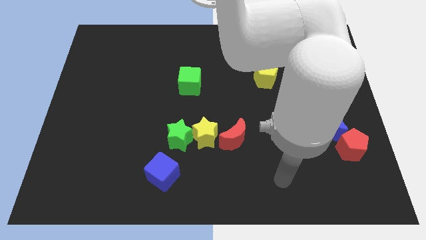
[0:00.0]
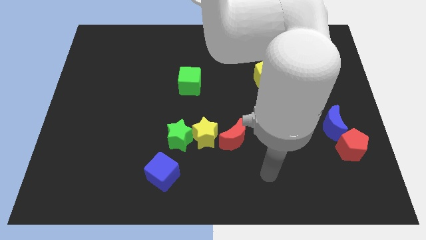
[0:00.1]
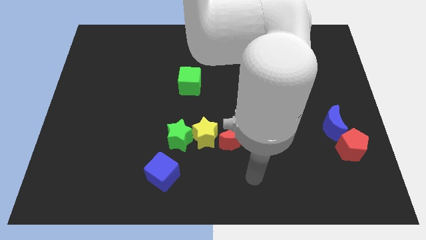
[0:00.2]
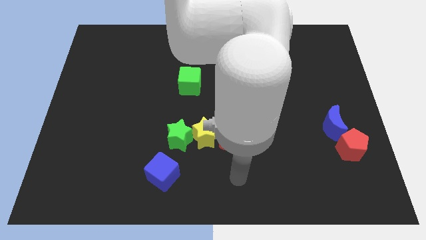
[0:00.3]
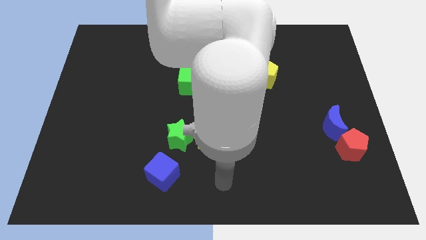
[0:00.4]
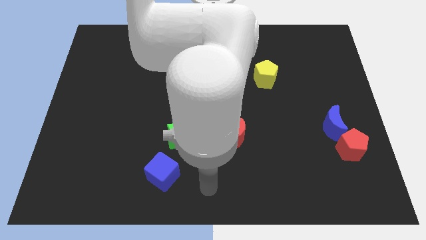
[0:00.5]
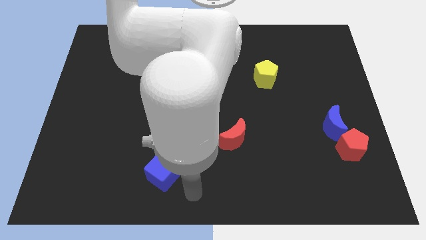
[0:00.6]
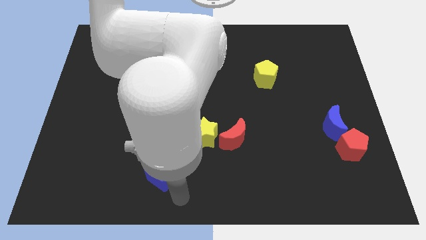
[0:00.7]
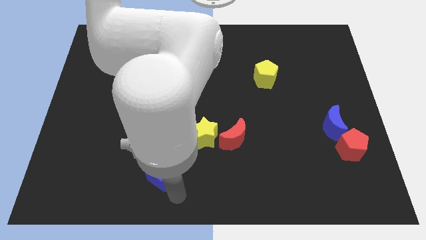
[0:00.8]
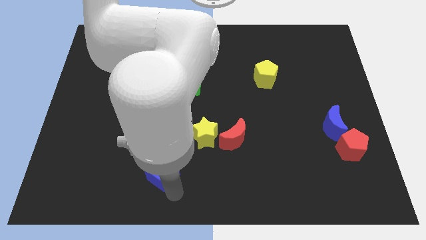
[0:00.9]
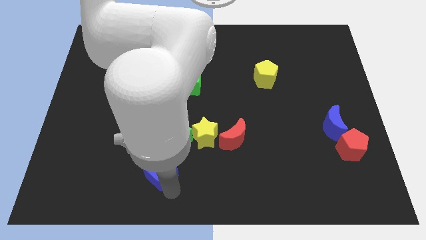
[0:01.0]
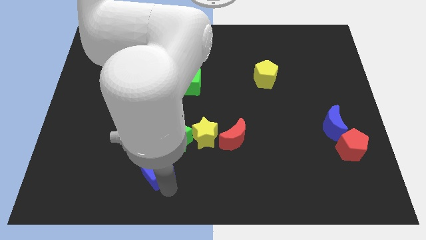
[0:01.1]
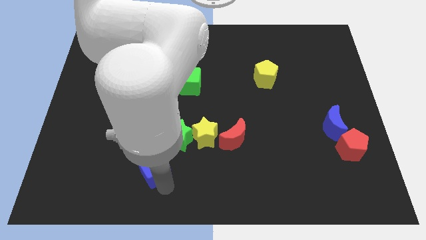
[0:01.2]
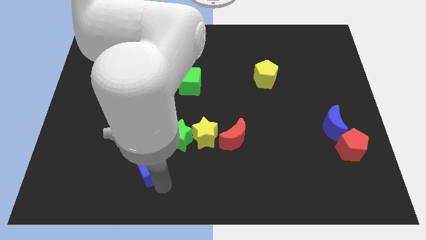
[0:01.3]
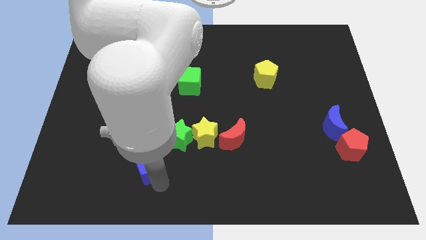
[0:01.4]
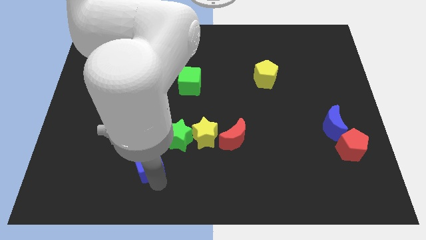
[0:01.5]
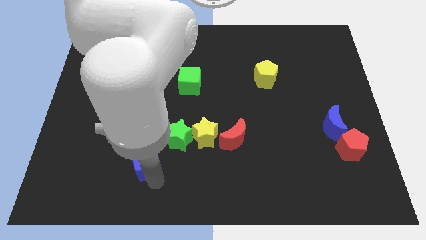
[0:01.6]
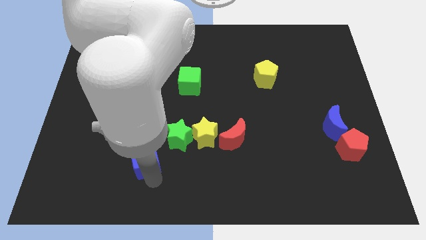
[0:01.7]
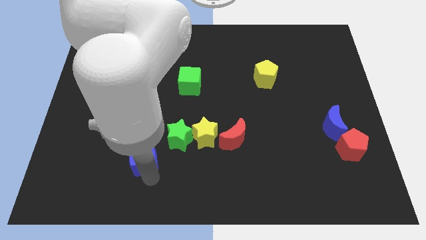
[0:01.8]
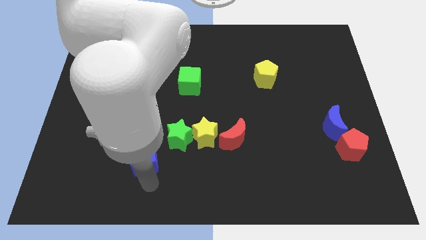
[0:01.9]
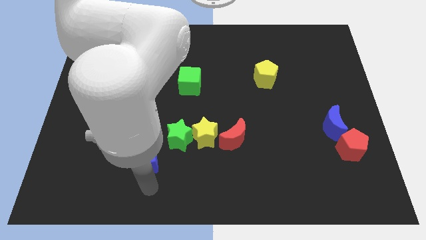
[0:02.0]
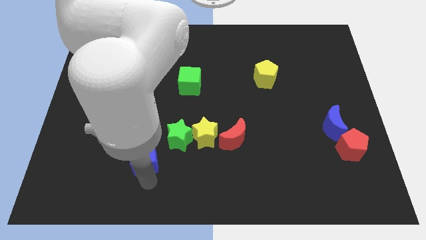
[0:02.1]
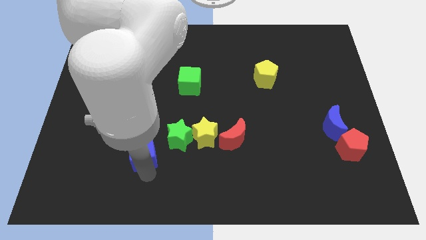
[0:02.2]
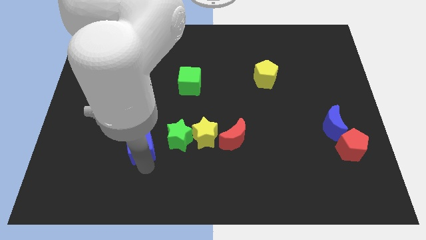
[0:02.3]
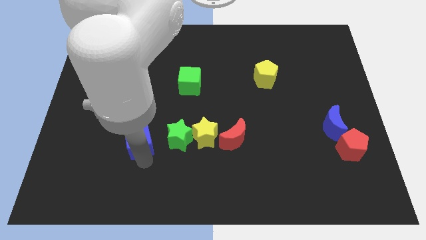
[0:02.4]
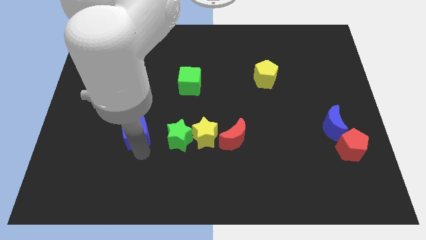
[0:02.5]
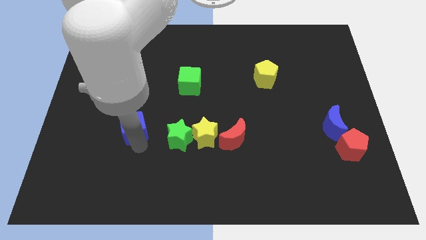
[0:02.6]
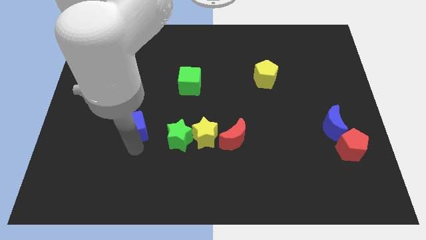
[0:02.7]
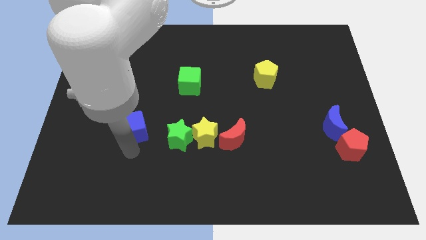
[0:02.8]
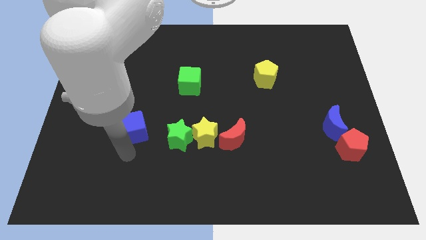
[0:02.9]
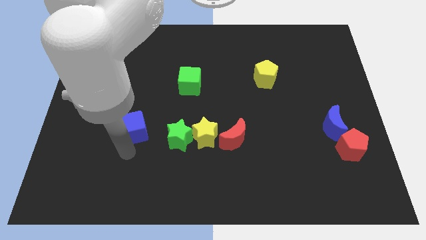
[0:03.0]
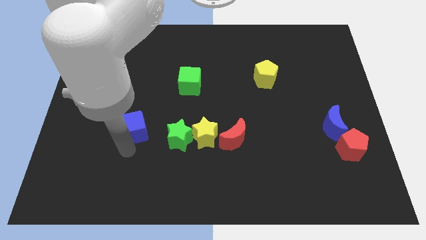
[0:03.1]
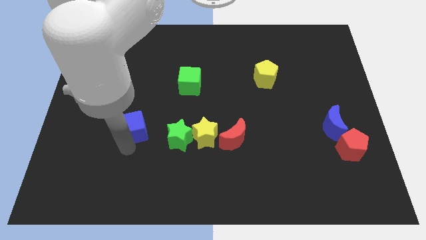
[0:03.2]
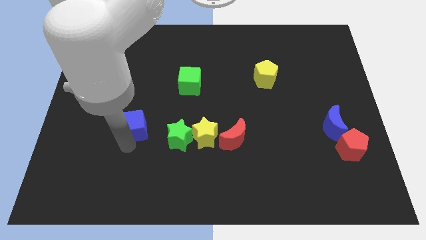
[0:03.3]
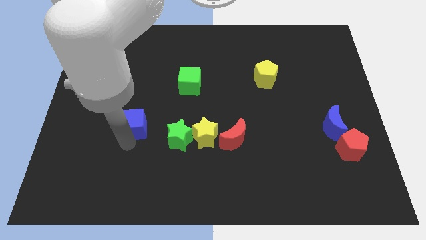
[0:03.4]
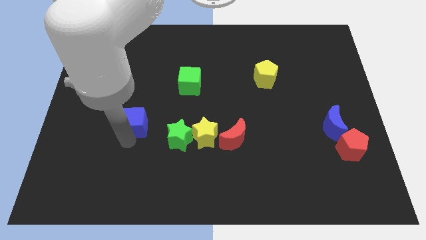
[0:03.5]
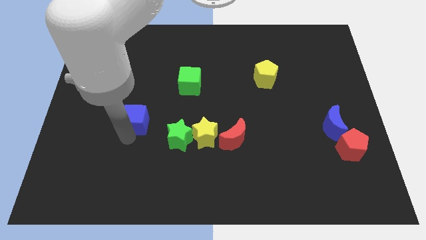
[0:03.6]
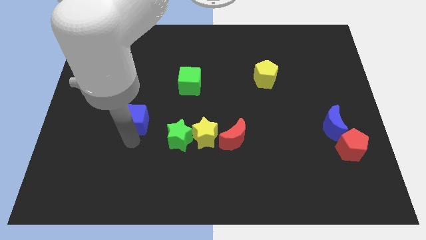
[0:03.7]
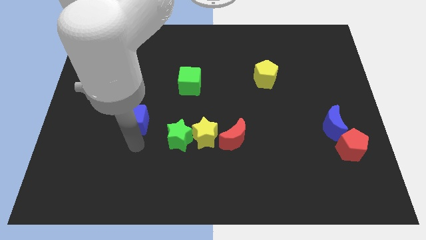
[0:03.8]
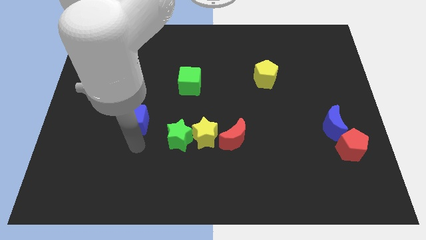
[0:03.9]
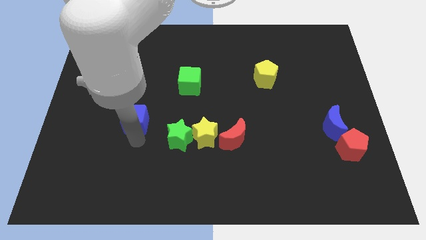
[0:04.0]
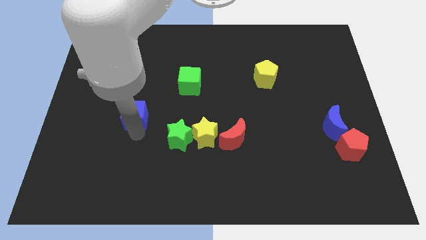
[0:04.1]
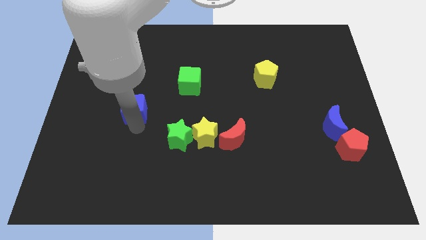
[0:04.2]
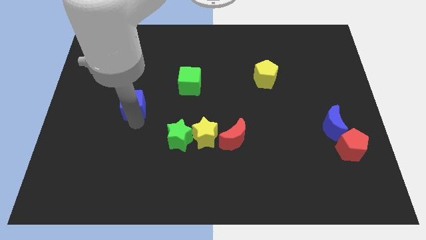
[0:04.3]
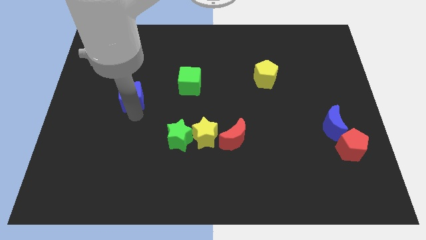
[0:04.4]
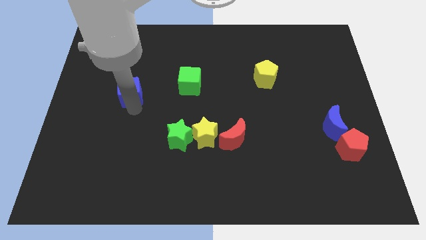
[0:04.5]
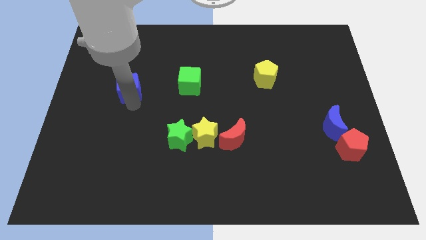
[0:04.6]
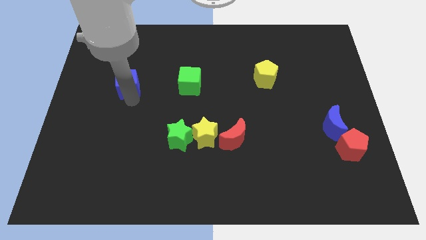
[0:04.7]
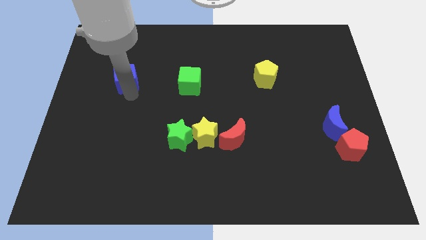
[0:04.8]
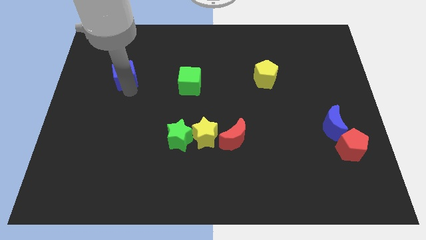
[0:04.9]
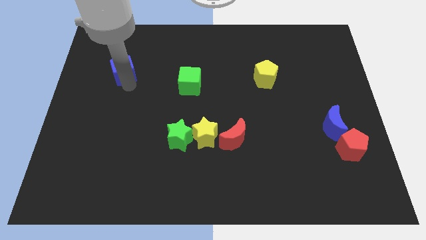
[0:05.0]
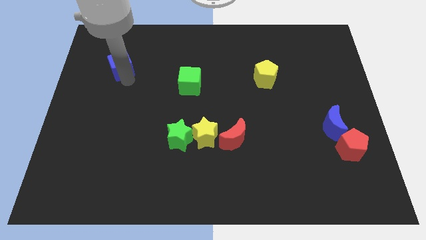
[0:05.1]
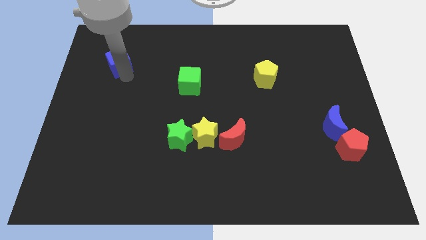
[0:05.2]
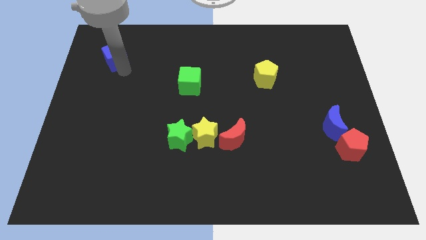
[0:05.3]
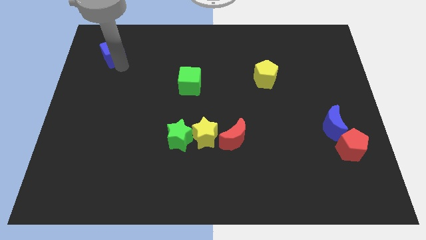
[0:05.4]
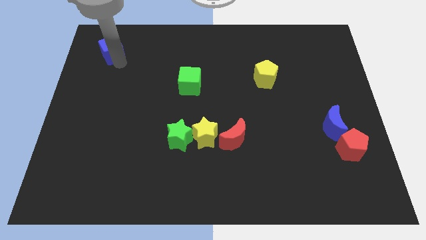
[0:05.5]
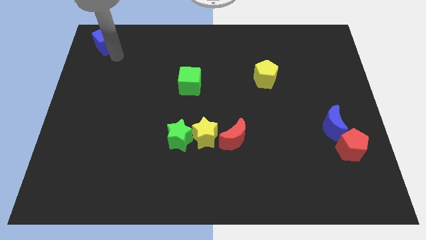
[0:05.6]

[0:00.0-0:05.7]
move the blue cube to the top left corner

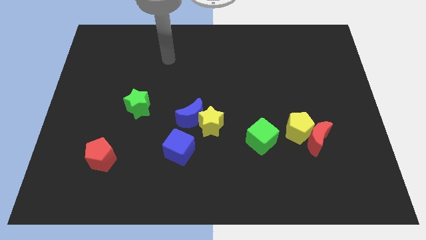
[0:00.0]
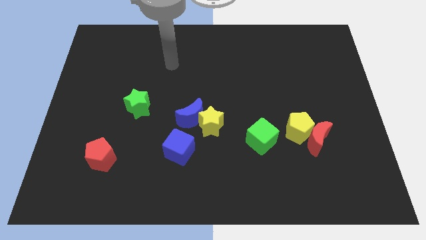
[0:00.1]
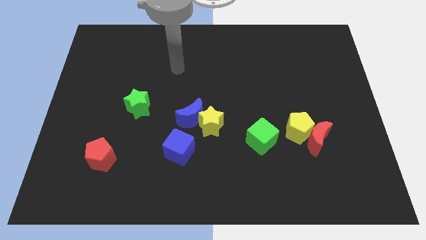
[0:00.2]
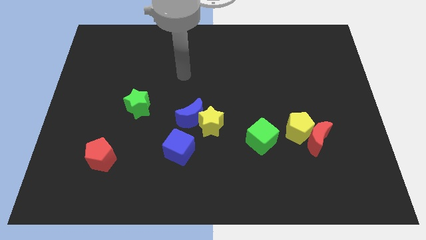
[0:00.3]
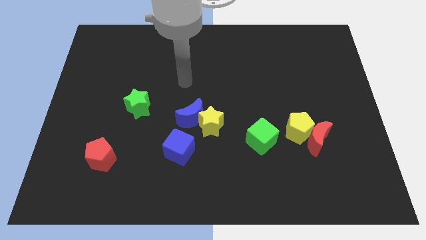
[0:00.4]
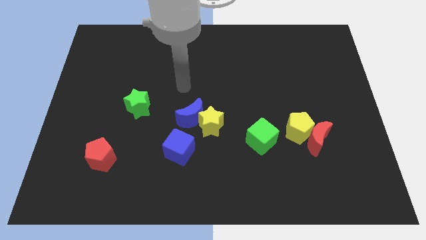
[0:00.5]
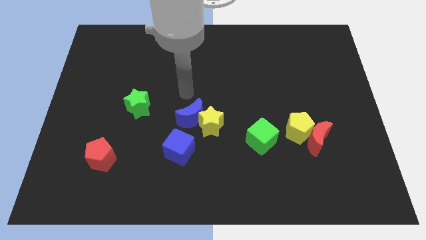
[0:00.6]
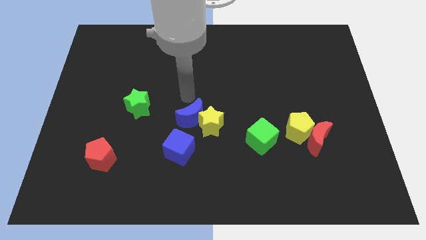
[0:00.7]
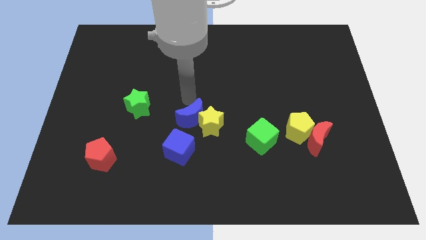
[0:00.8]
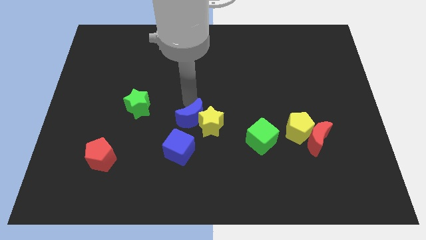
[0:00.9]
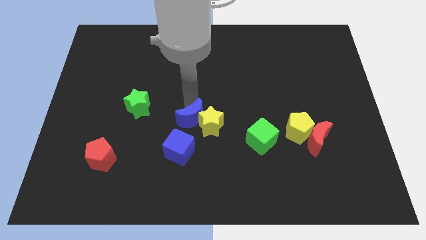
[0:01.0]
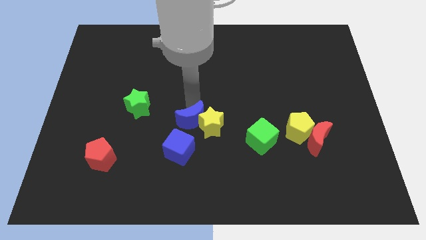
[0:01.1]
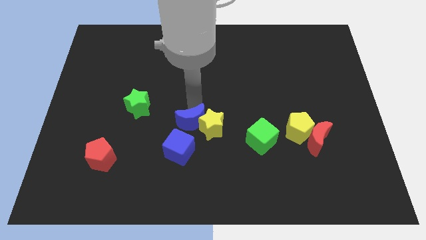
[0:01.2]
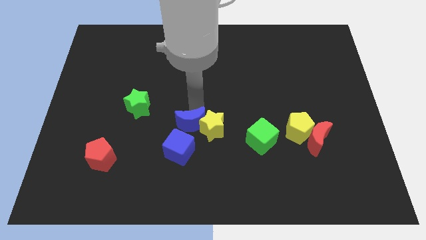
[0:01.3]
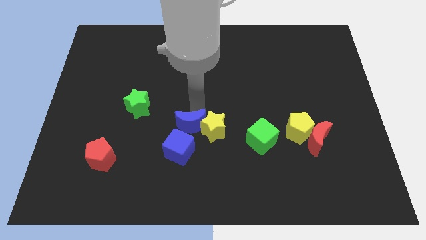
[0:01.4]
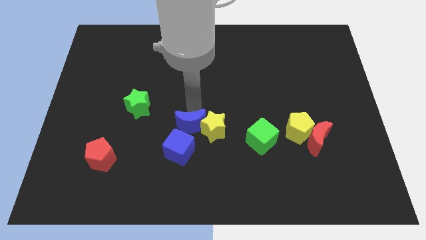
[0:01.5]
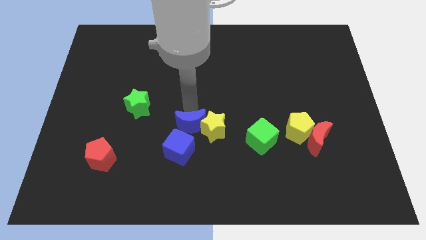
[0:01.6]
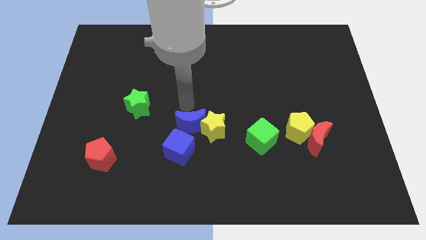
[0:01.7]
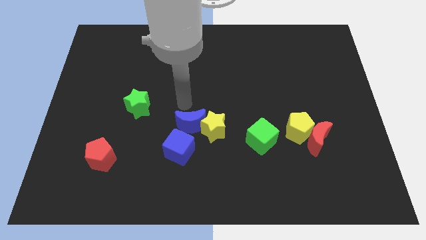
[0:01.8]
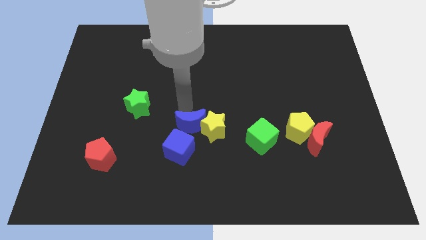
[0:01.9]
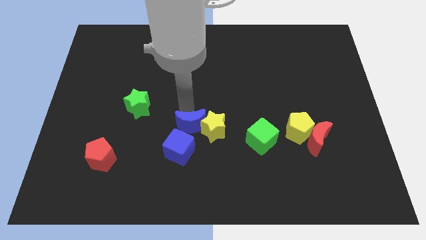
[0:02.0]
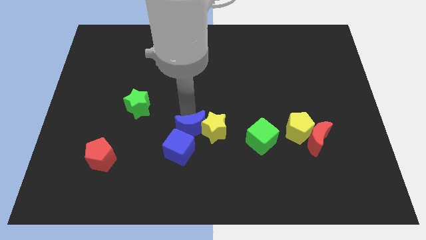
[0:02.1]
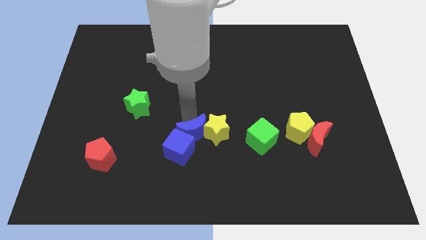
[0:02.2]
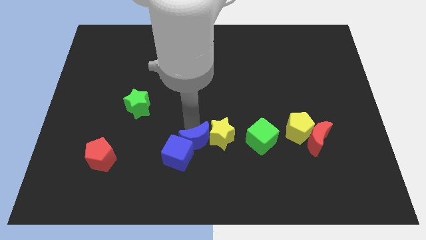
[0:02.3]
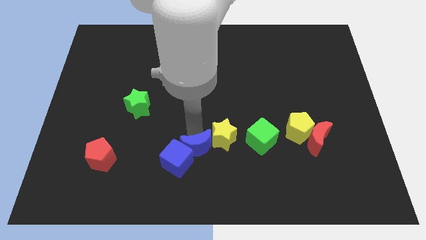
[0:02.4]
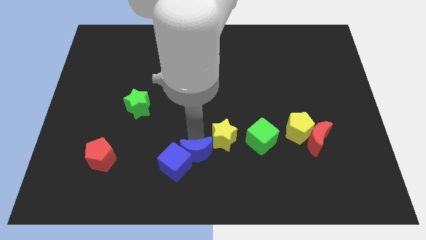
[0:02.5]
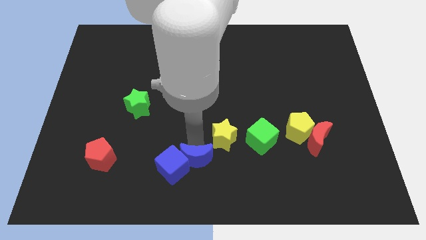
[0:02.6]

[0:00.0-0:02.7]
push the blue moon to the bottom side
